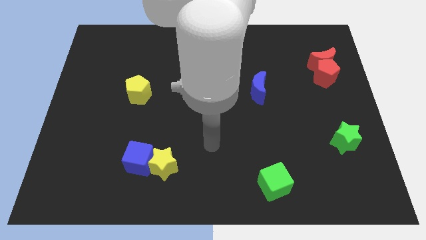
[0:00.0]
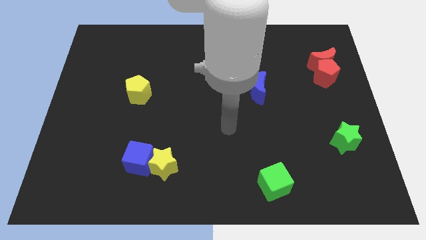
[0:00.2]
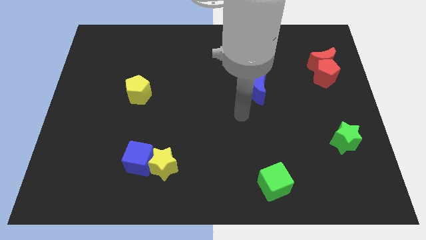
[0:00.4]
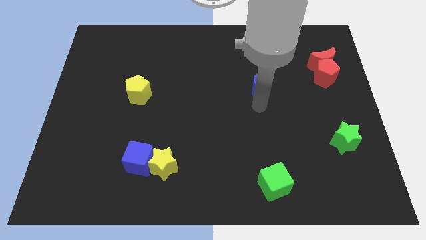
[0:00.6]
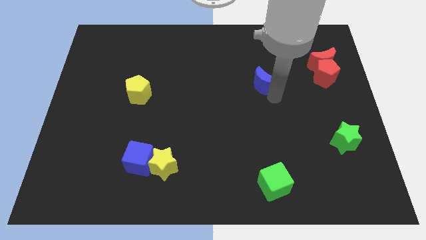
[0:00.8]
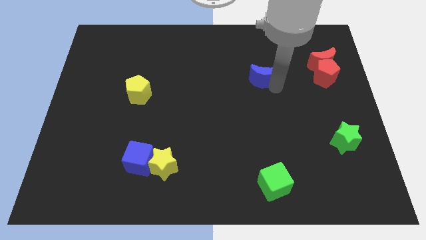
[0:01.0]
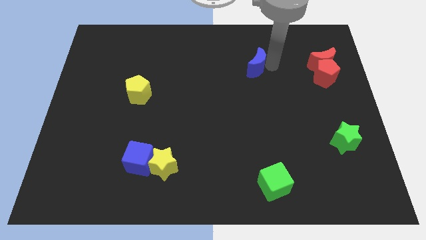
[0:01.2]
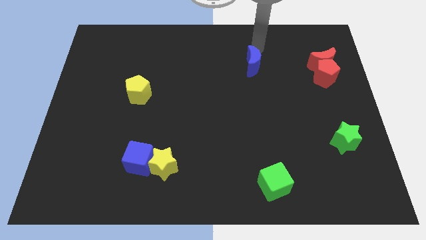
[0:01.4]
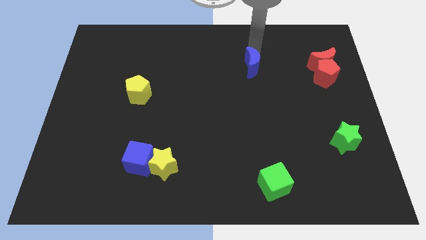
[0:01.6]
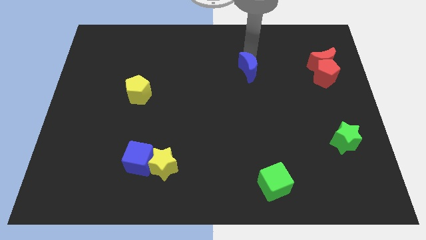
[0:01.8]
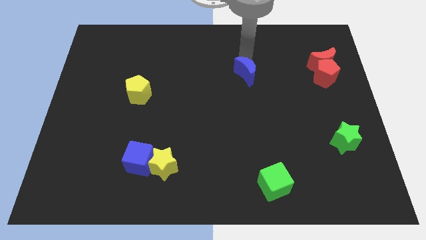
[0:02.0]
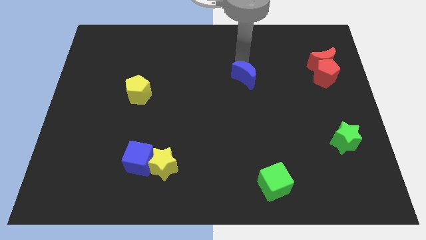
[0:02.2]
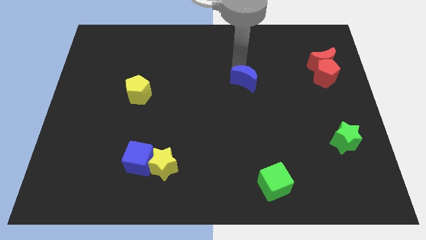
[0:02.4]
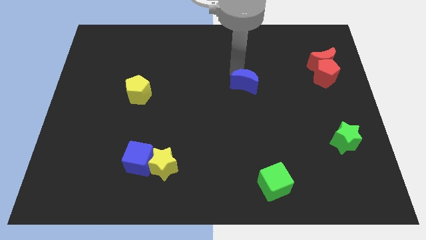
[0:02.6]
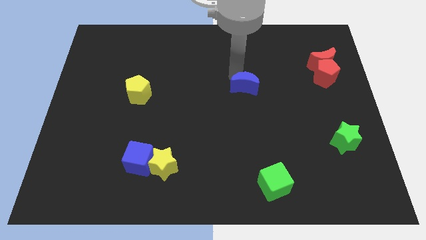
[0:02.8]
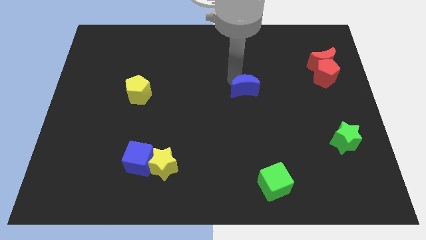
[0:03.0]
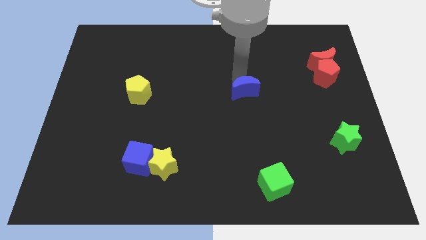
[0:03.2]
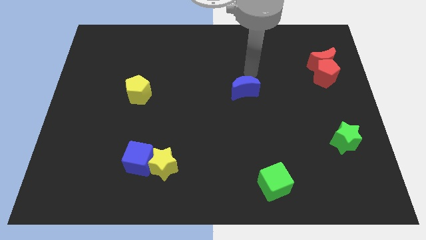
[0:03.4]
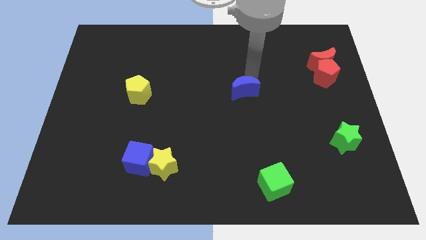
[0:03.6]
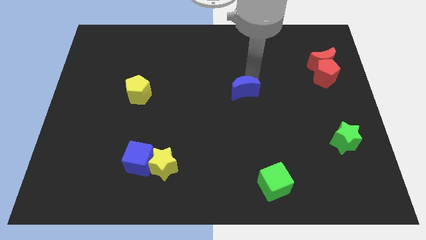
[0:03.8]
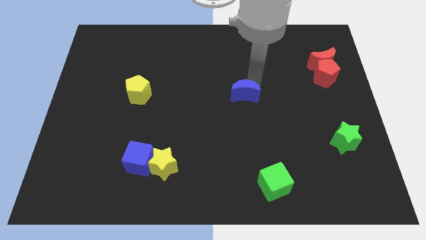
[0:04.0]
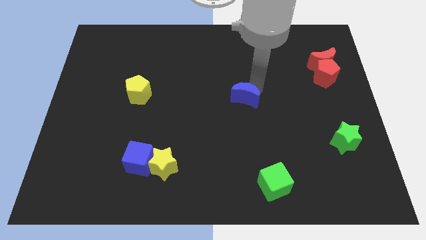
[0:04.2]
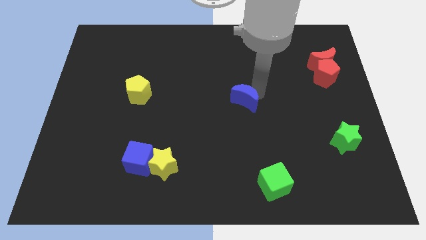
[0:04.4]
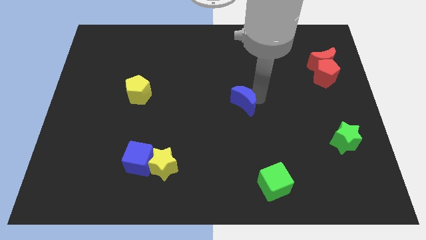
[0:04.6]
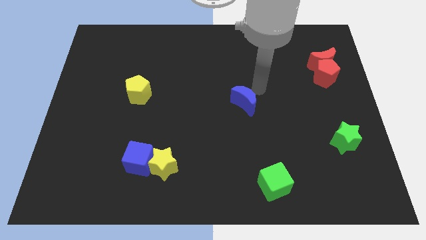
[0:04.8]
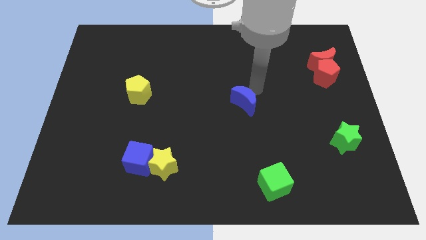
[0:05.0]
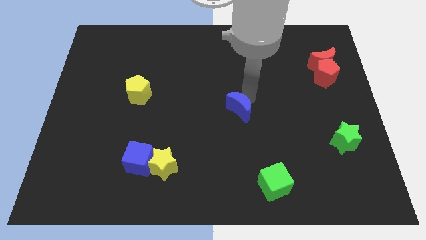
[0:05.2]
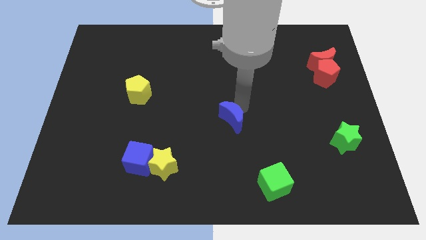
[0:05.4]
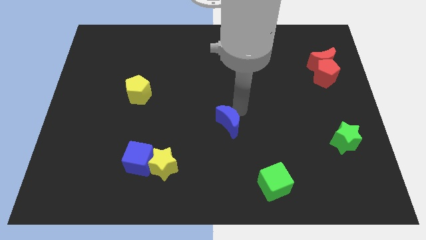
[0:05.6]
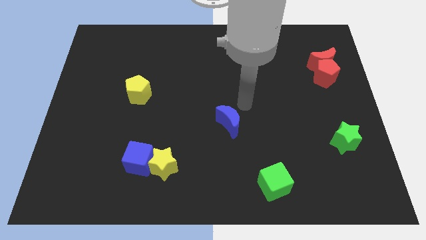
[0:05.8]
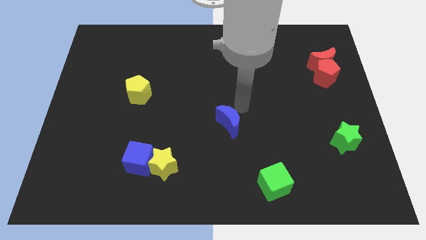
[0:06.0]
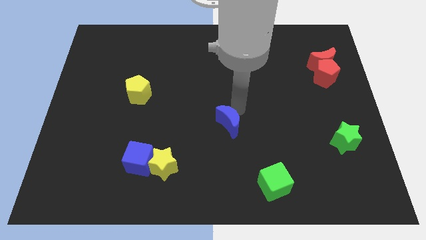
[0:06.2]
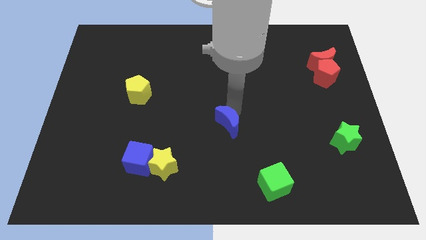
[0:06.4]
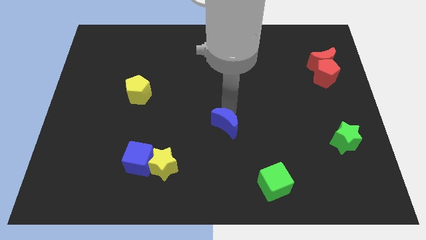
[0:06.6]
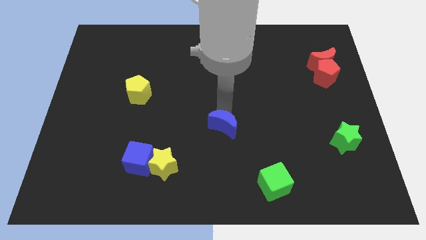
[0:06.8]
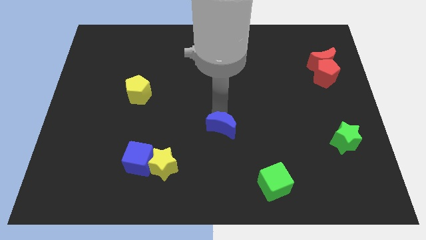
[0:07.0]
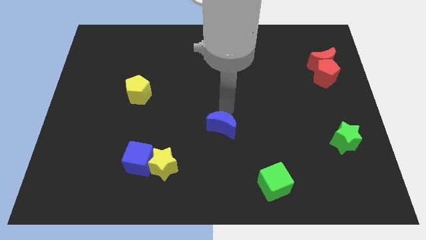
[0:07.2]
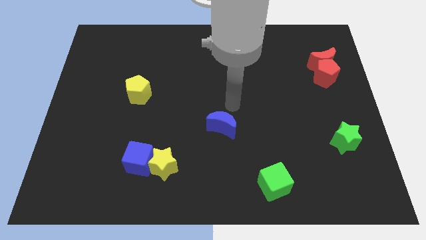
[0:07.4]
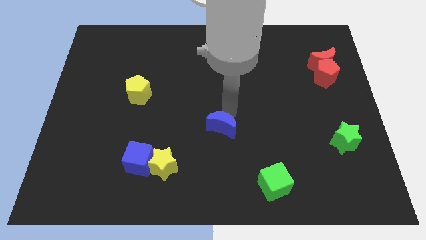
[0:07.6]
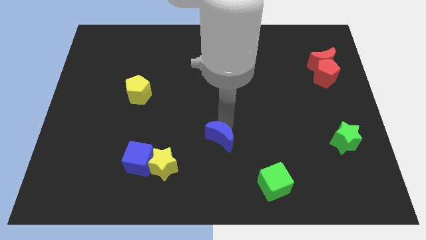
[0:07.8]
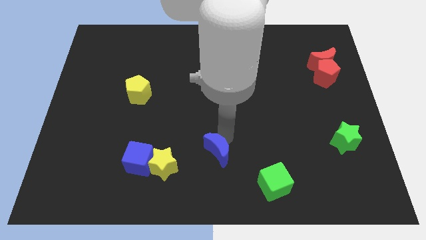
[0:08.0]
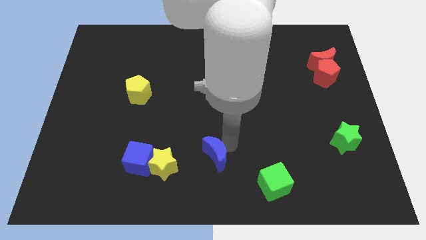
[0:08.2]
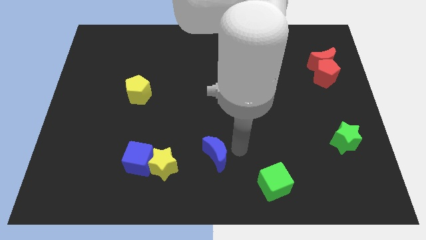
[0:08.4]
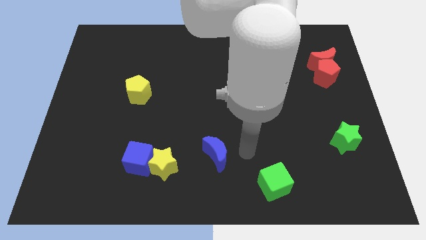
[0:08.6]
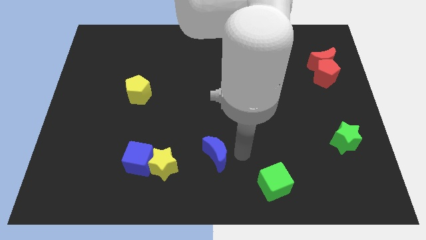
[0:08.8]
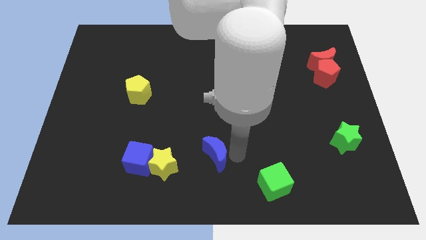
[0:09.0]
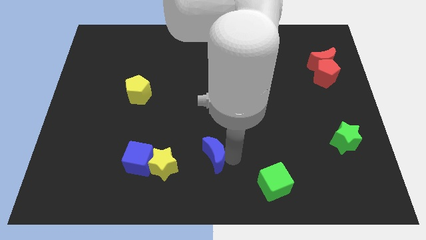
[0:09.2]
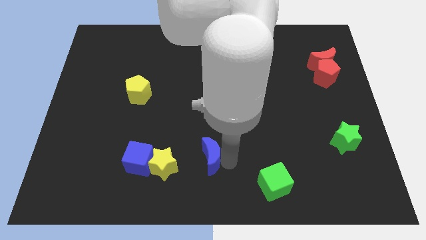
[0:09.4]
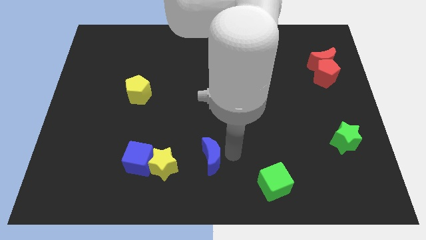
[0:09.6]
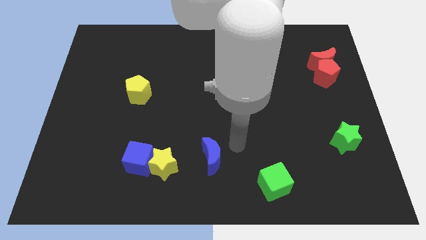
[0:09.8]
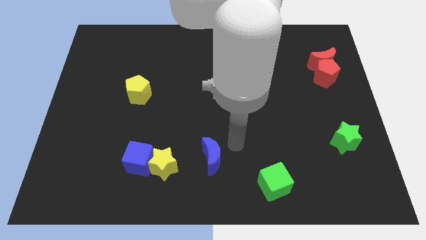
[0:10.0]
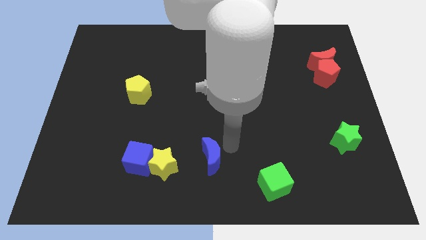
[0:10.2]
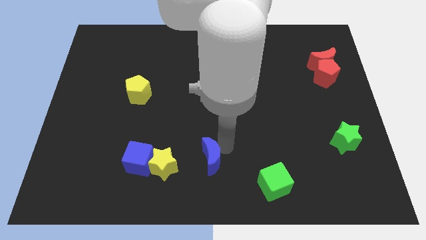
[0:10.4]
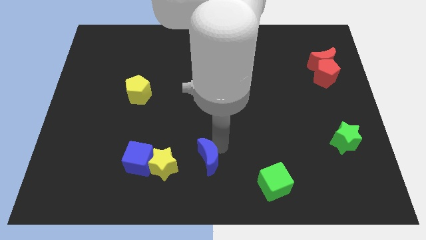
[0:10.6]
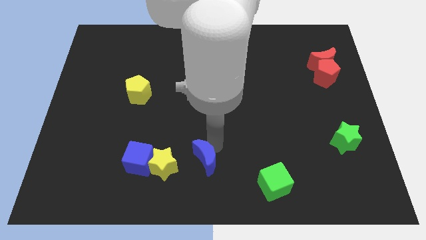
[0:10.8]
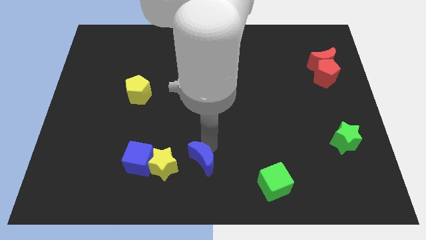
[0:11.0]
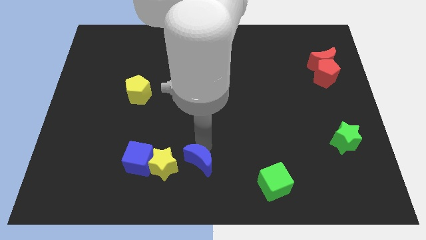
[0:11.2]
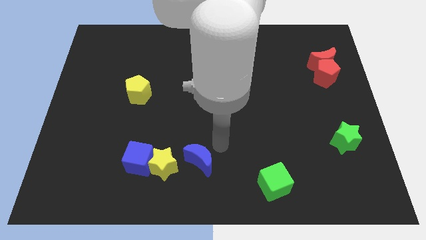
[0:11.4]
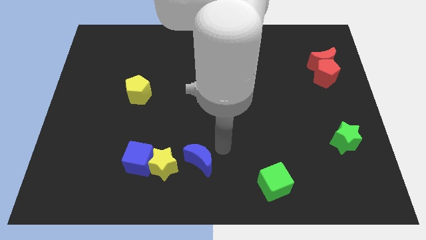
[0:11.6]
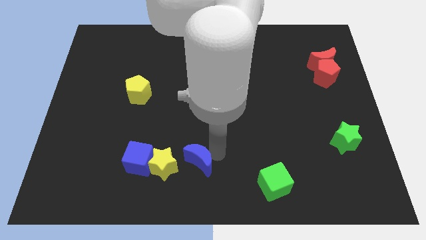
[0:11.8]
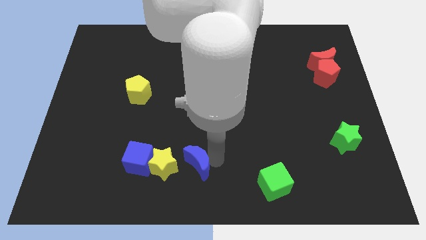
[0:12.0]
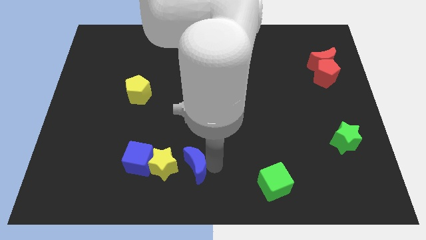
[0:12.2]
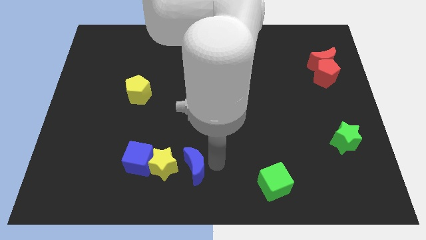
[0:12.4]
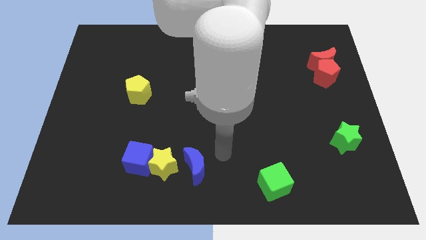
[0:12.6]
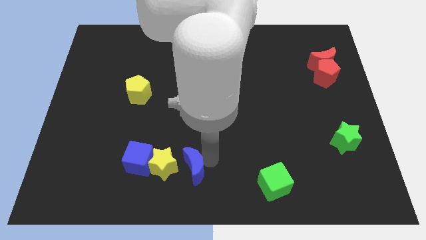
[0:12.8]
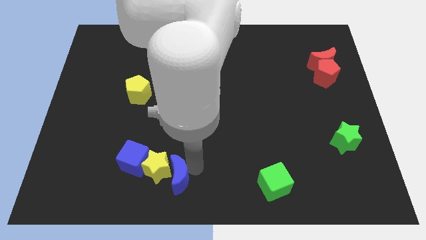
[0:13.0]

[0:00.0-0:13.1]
move the blue moon diagonally down and to the right of the blue cube

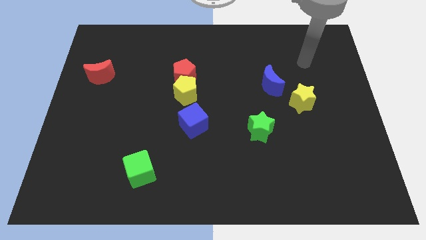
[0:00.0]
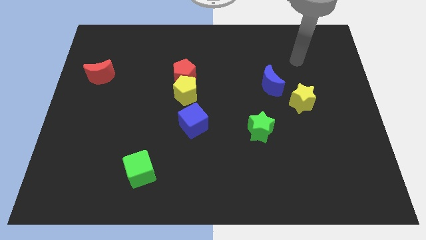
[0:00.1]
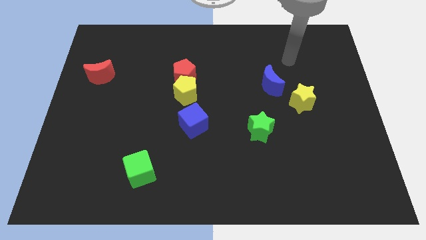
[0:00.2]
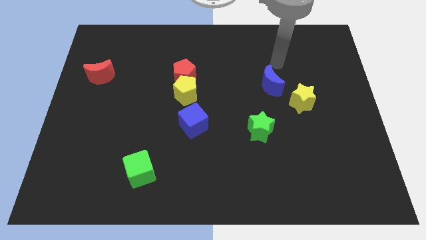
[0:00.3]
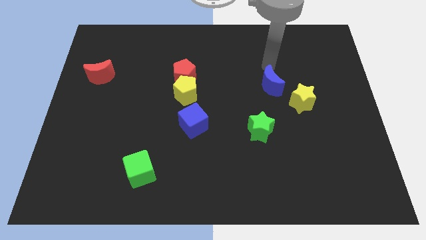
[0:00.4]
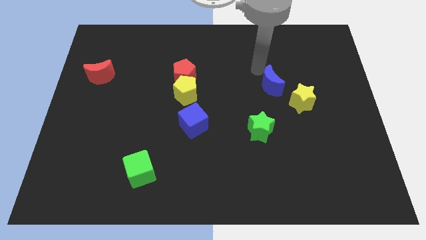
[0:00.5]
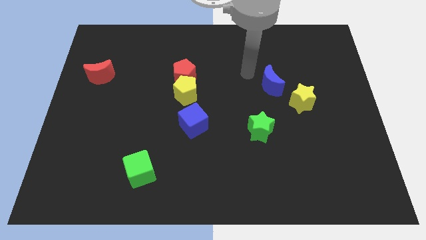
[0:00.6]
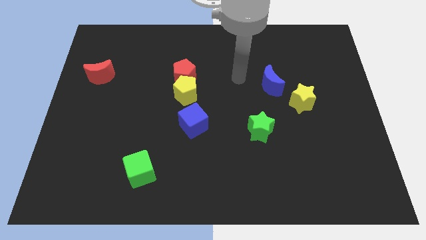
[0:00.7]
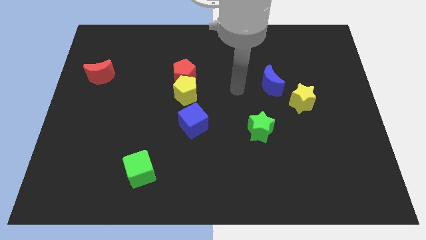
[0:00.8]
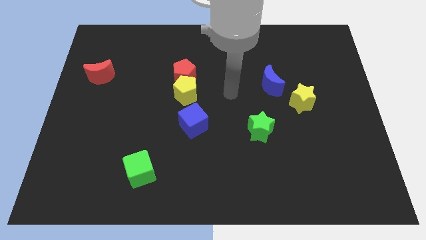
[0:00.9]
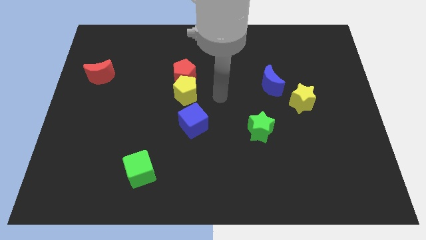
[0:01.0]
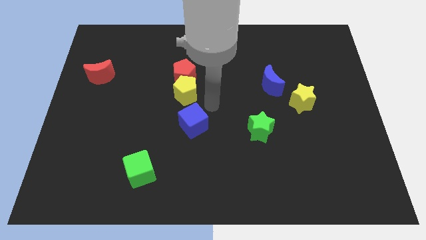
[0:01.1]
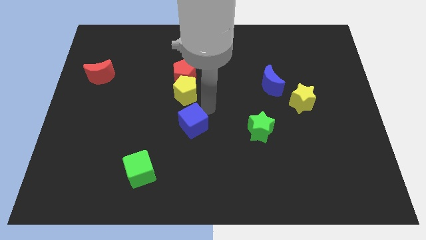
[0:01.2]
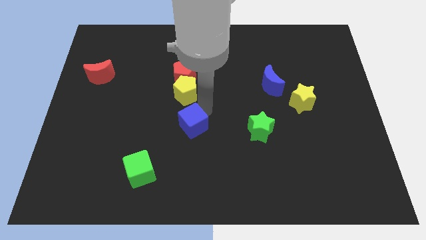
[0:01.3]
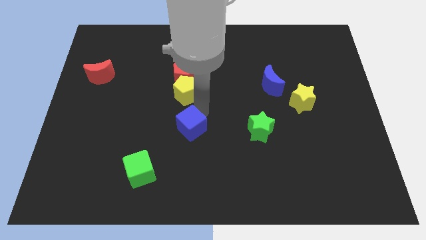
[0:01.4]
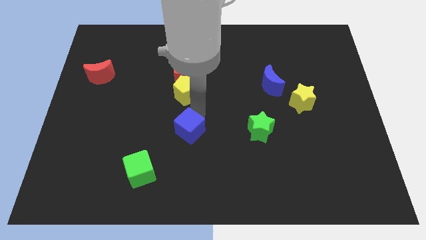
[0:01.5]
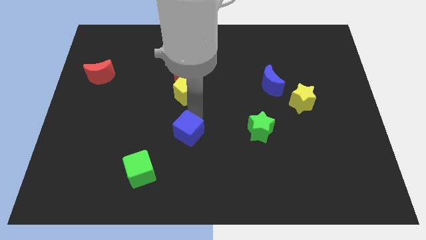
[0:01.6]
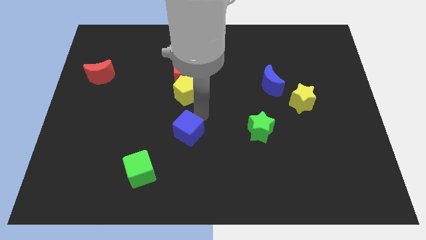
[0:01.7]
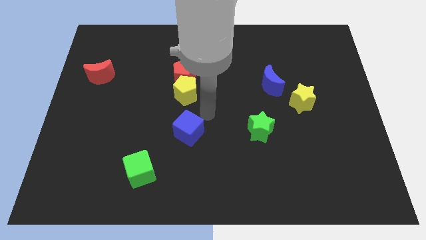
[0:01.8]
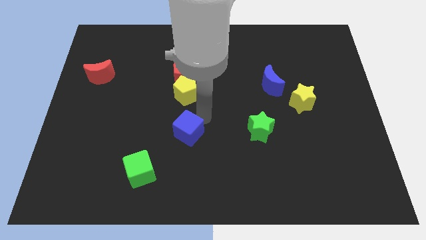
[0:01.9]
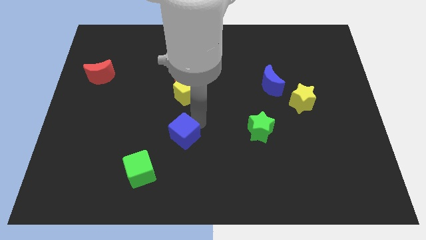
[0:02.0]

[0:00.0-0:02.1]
slide the blue cube to the top right of the green cube
